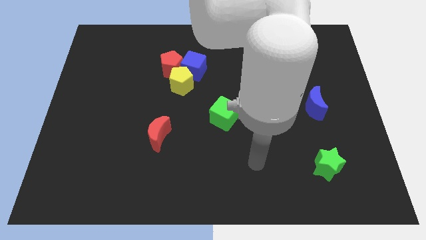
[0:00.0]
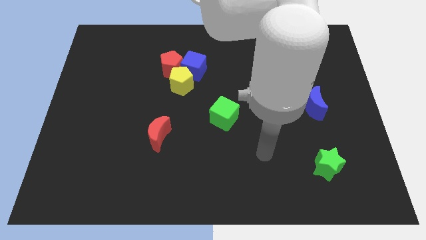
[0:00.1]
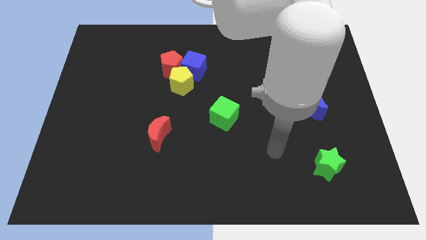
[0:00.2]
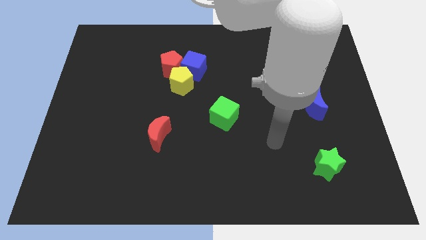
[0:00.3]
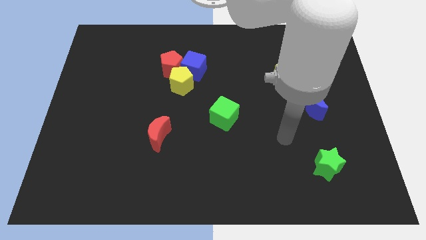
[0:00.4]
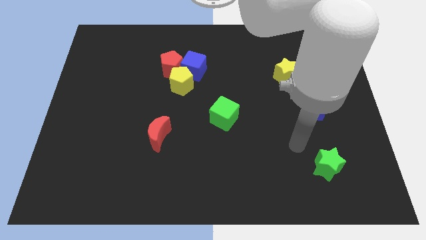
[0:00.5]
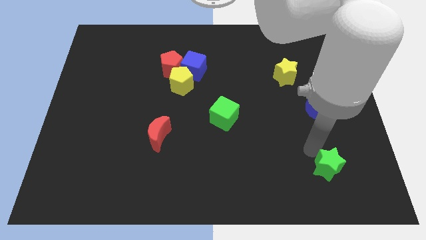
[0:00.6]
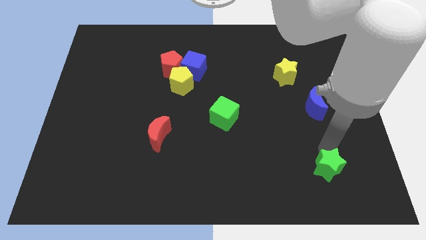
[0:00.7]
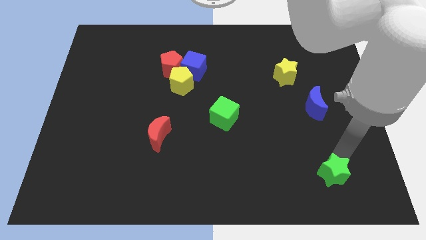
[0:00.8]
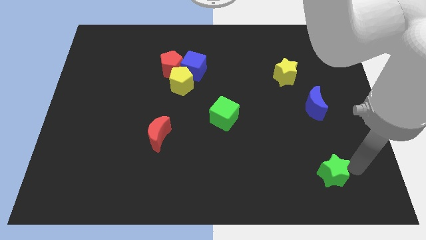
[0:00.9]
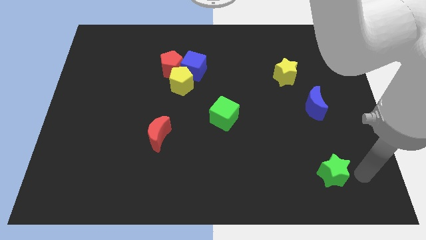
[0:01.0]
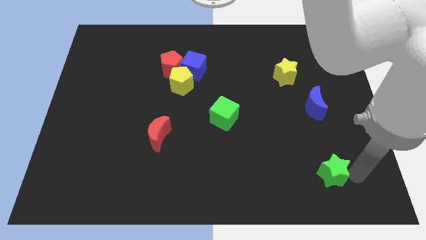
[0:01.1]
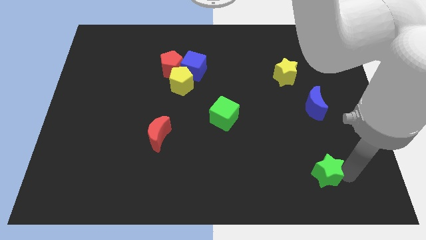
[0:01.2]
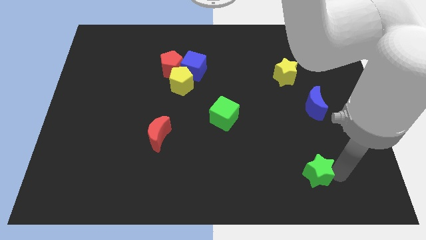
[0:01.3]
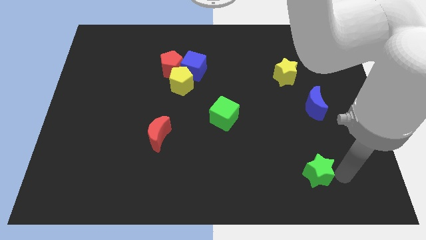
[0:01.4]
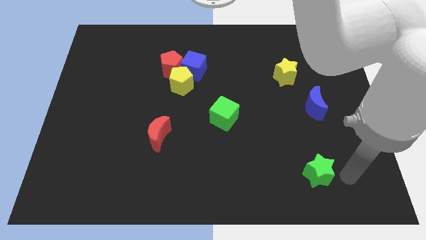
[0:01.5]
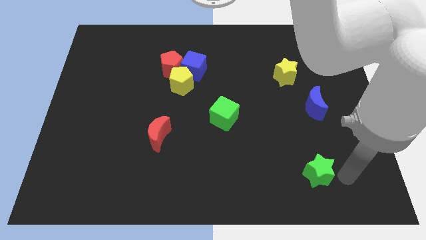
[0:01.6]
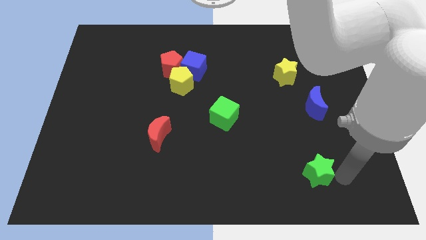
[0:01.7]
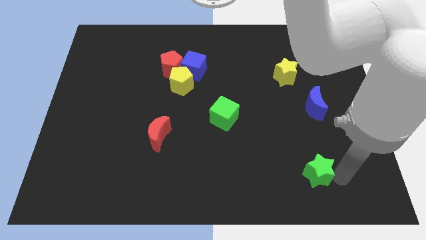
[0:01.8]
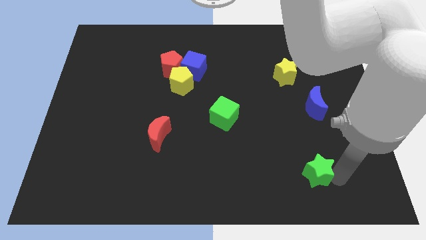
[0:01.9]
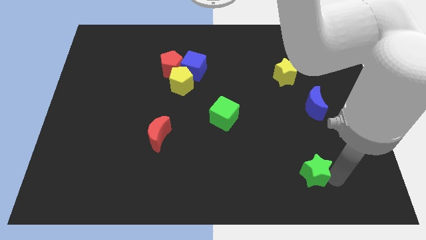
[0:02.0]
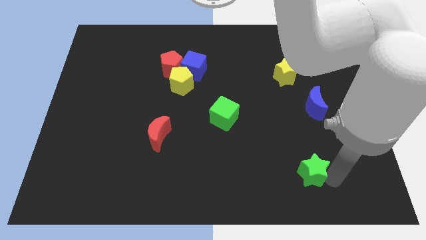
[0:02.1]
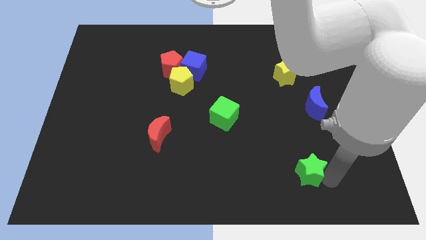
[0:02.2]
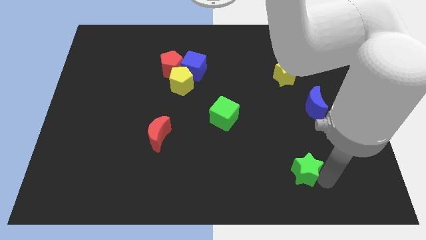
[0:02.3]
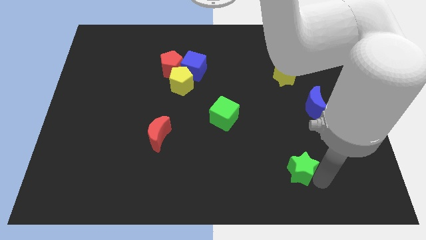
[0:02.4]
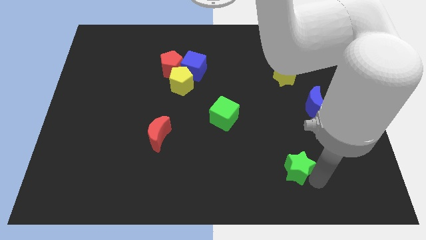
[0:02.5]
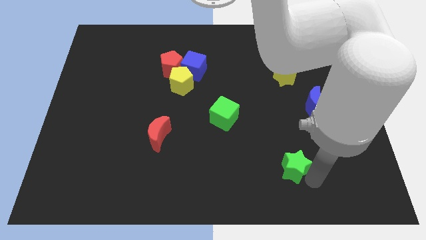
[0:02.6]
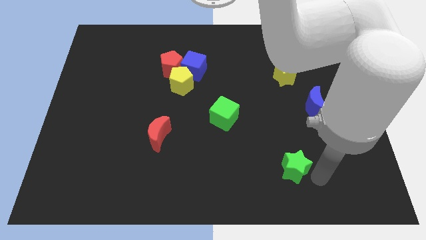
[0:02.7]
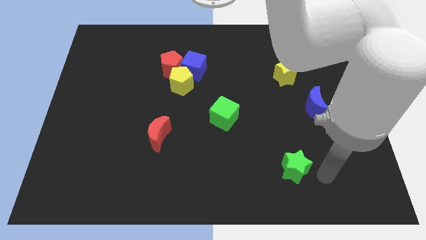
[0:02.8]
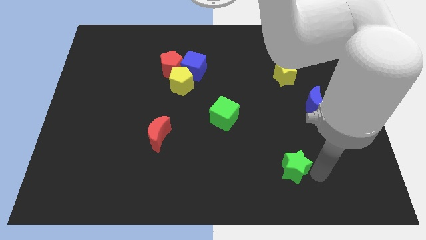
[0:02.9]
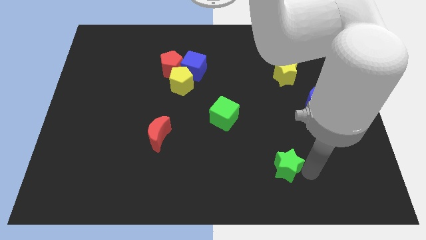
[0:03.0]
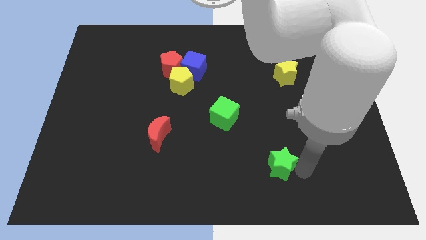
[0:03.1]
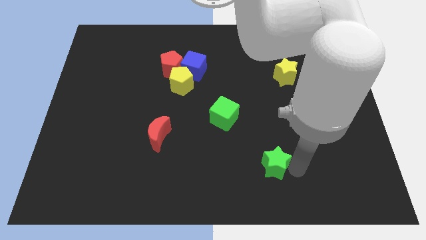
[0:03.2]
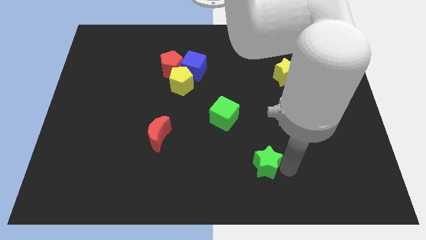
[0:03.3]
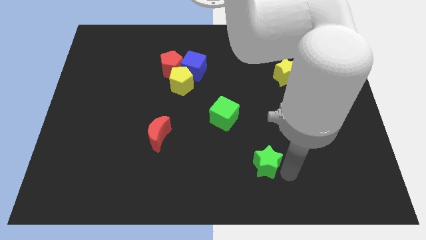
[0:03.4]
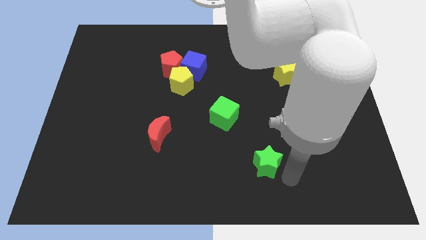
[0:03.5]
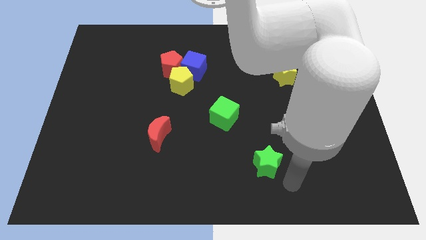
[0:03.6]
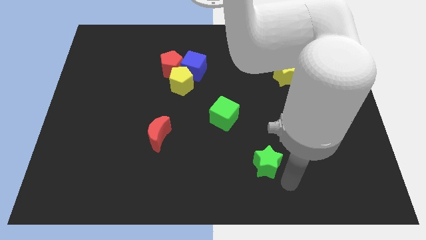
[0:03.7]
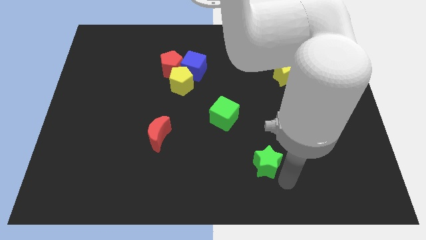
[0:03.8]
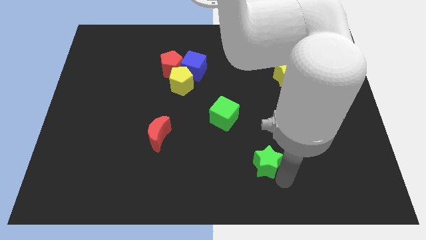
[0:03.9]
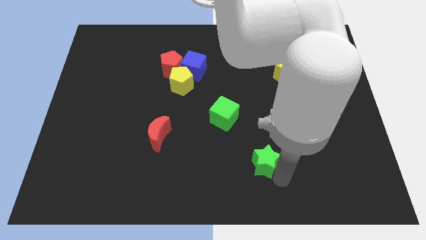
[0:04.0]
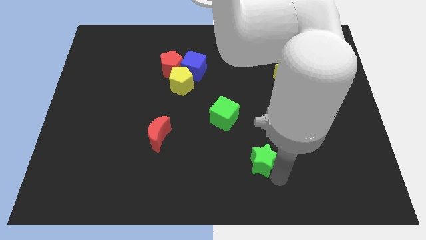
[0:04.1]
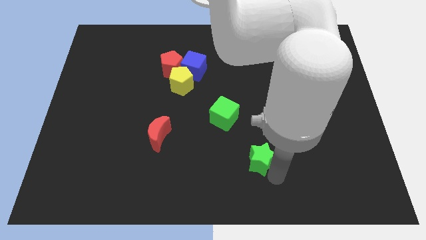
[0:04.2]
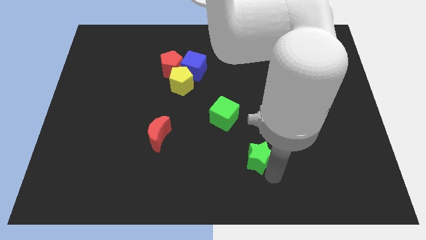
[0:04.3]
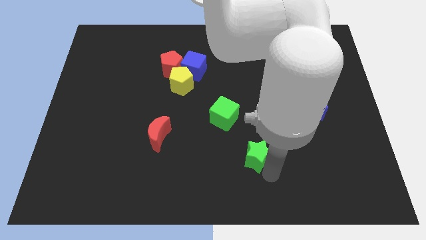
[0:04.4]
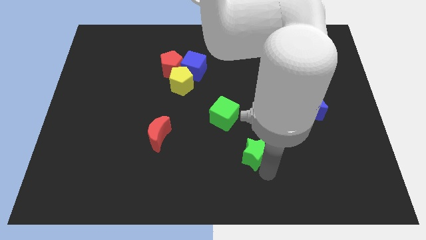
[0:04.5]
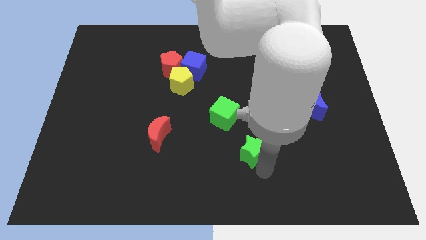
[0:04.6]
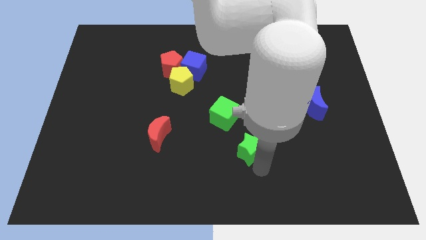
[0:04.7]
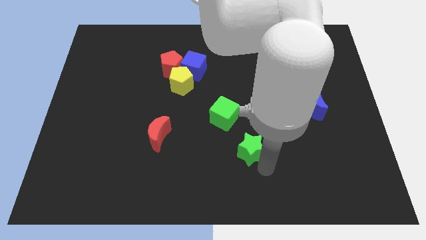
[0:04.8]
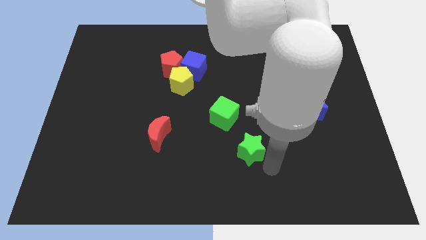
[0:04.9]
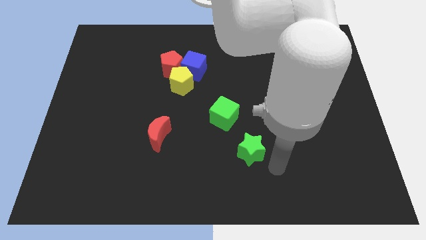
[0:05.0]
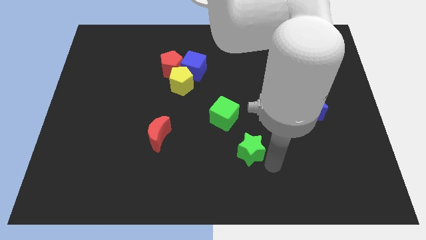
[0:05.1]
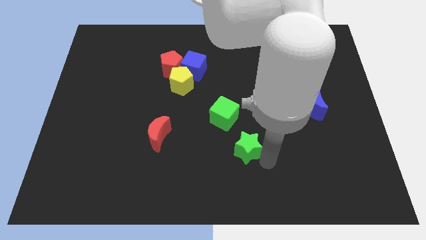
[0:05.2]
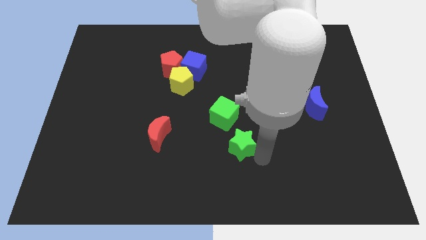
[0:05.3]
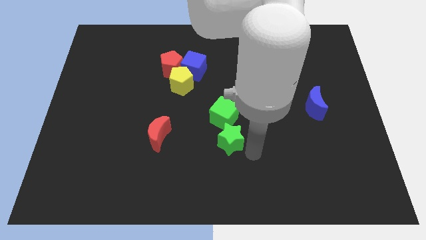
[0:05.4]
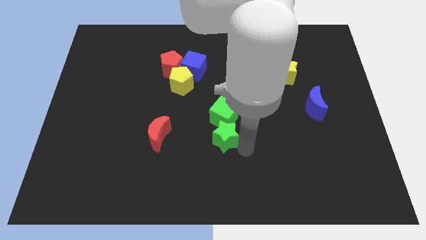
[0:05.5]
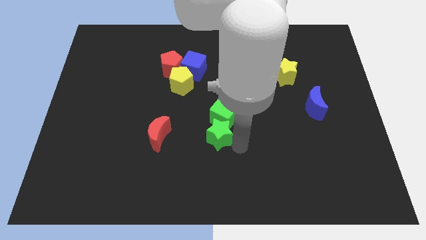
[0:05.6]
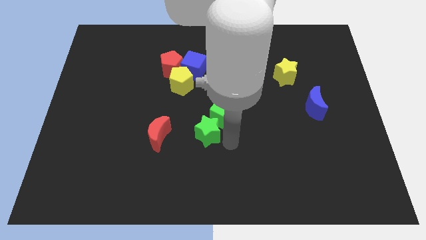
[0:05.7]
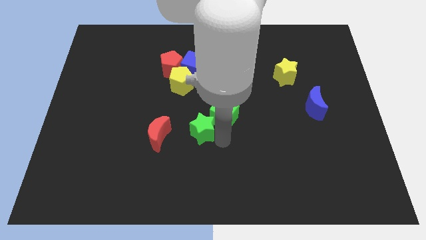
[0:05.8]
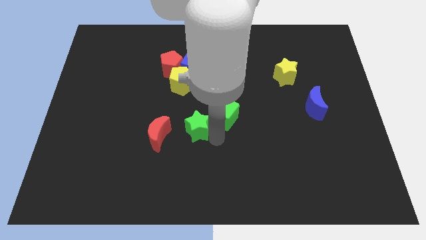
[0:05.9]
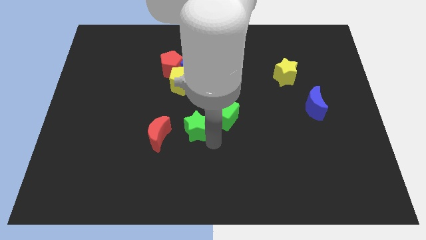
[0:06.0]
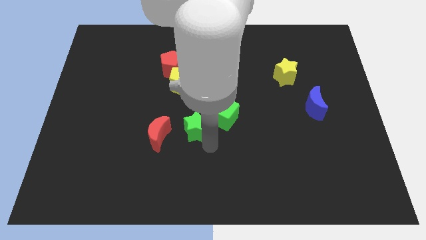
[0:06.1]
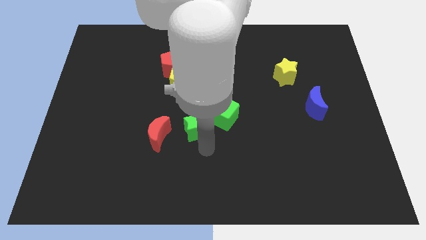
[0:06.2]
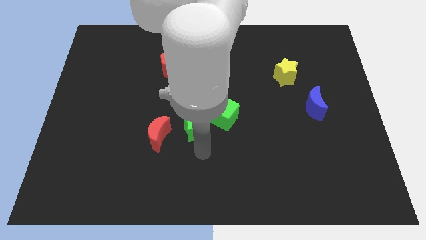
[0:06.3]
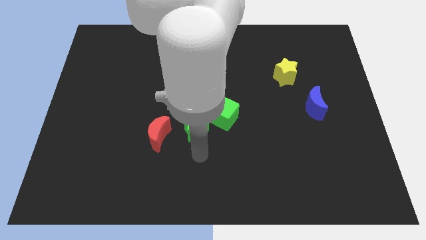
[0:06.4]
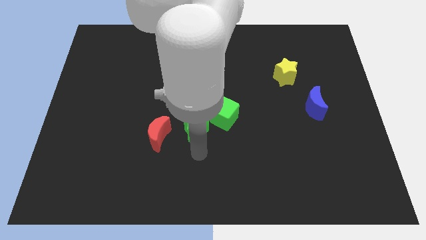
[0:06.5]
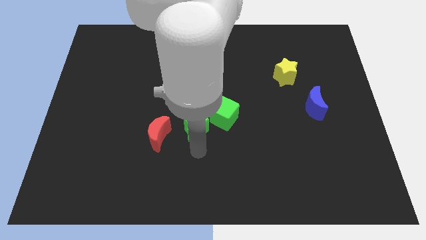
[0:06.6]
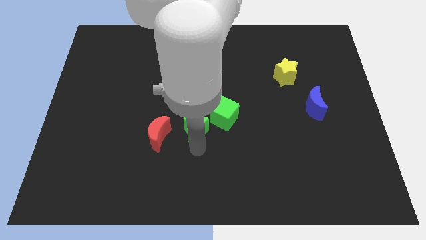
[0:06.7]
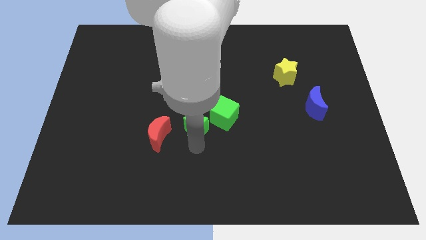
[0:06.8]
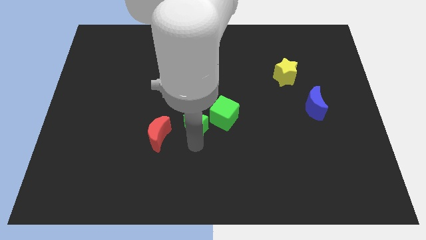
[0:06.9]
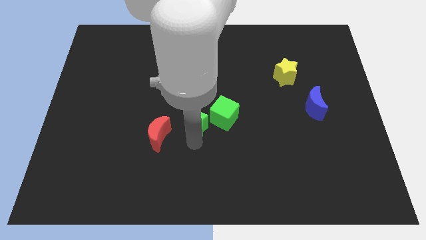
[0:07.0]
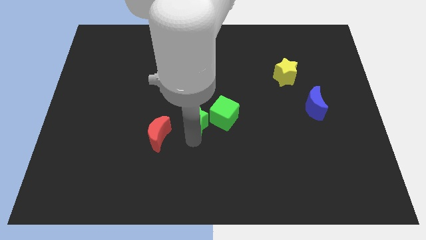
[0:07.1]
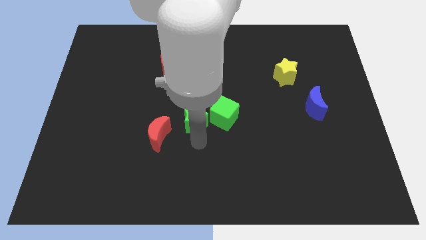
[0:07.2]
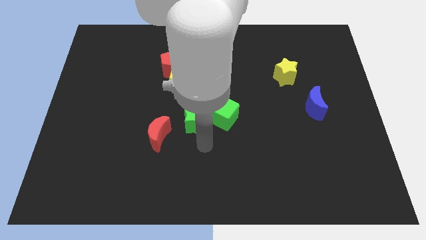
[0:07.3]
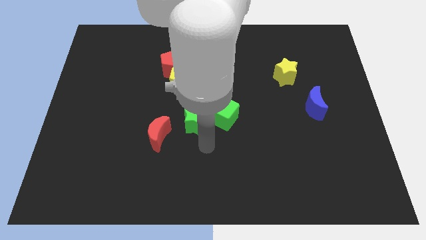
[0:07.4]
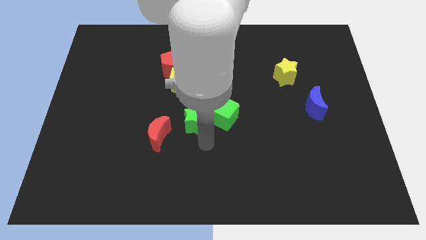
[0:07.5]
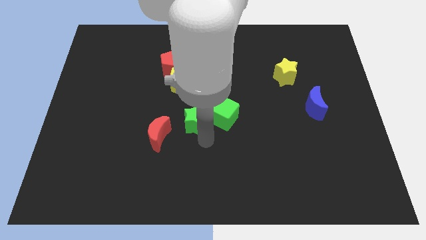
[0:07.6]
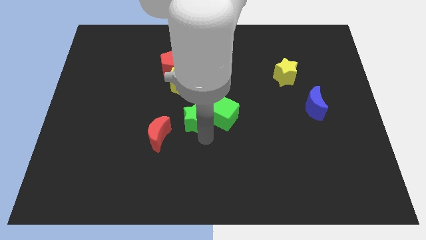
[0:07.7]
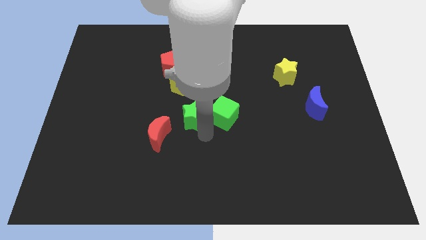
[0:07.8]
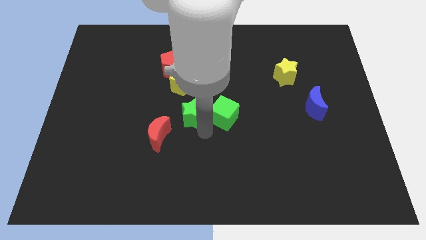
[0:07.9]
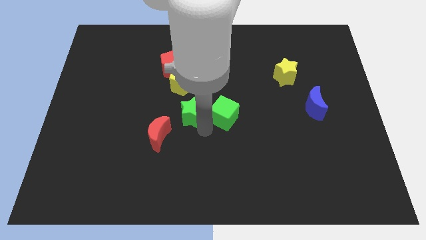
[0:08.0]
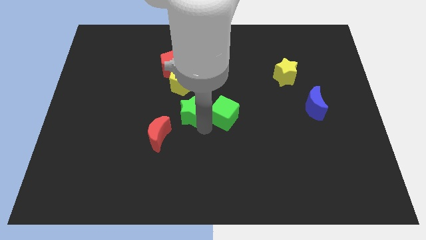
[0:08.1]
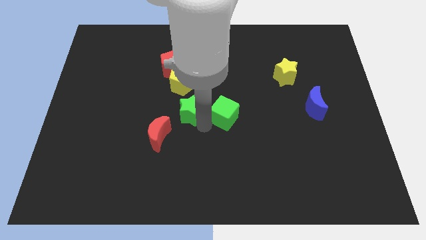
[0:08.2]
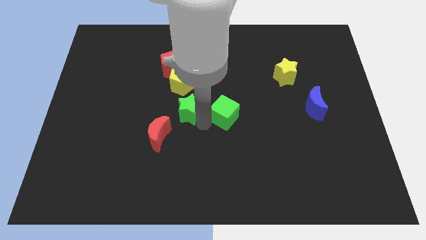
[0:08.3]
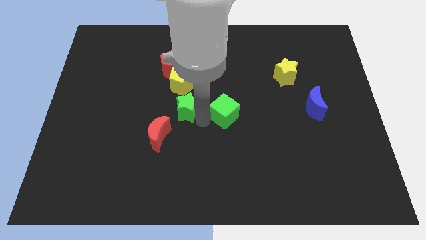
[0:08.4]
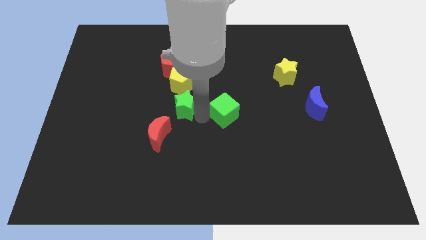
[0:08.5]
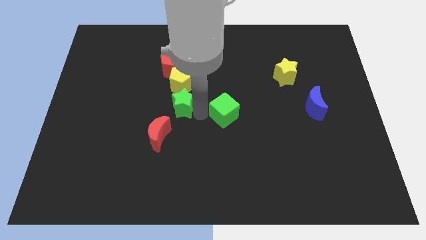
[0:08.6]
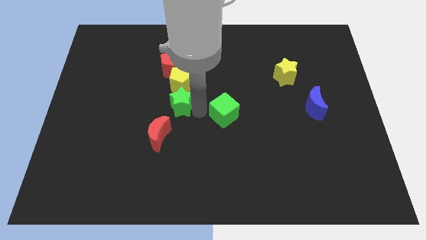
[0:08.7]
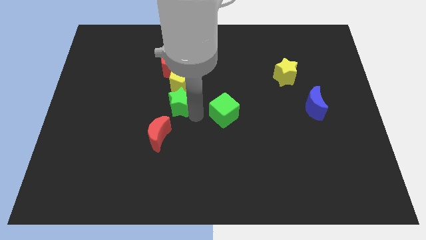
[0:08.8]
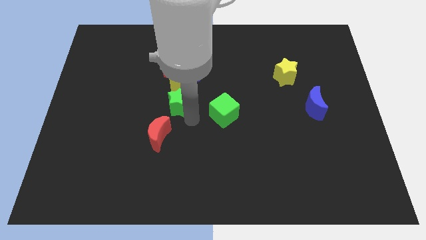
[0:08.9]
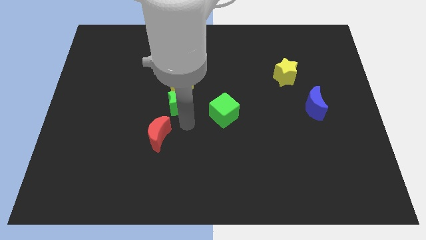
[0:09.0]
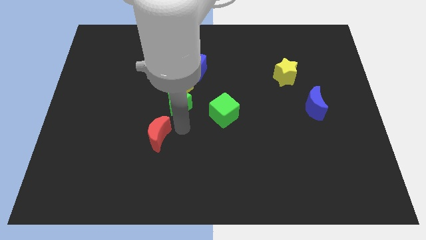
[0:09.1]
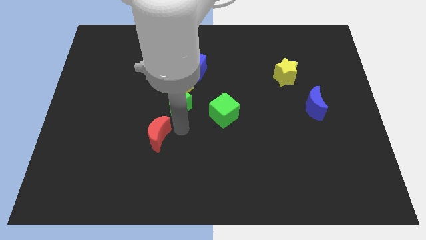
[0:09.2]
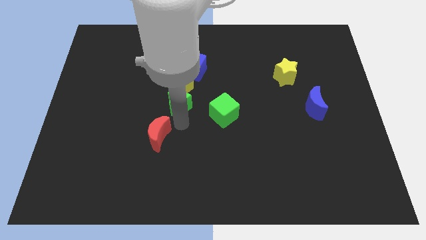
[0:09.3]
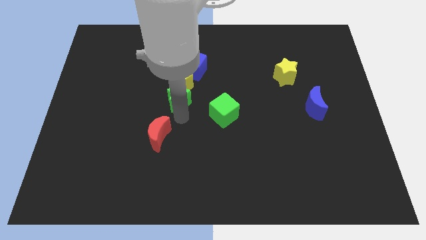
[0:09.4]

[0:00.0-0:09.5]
put the green star to the yellow pentagon
